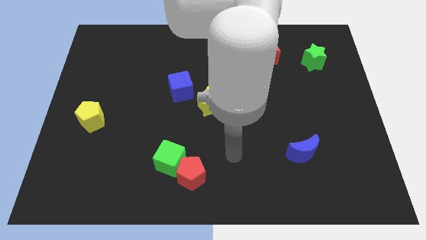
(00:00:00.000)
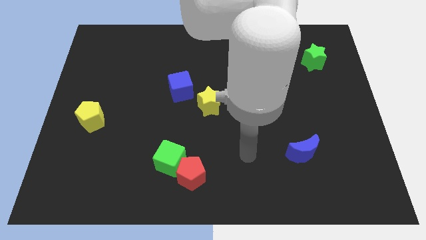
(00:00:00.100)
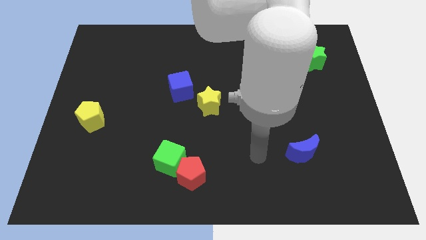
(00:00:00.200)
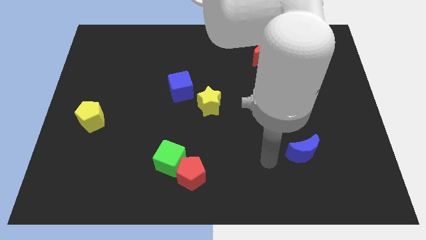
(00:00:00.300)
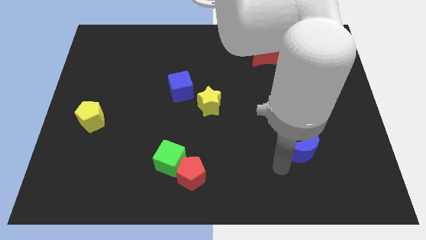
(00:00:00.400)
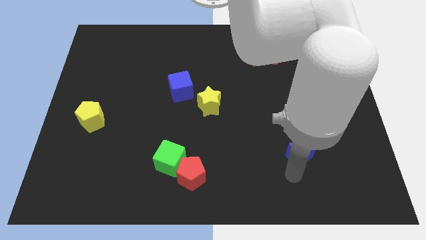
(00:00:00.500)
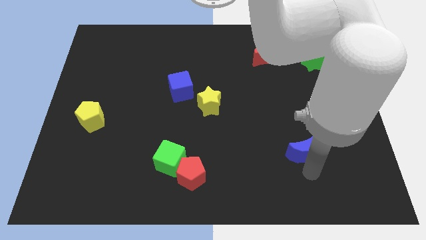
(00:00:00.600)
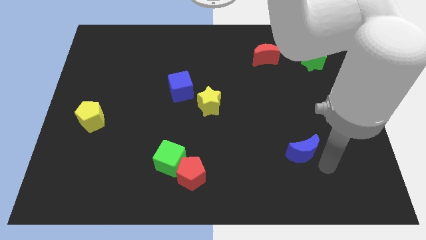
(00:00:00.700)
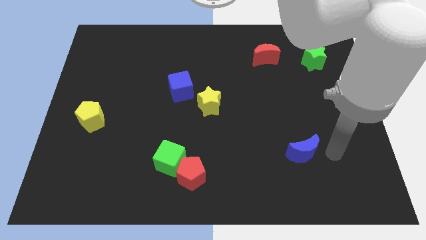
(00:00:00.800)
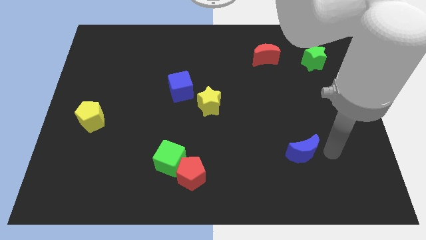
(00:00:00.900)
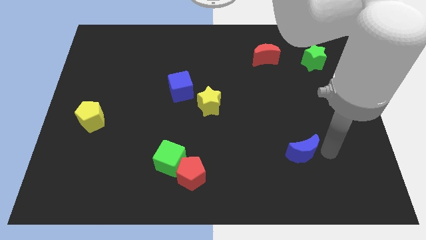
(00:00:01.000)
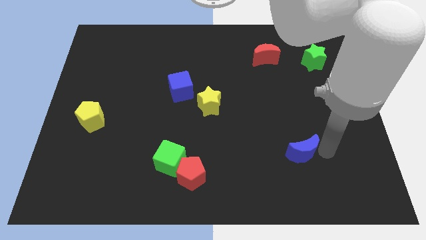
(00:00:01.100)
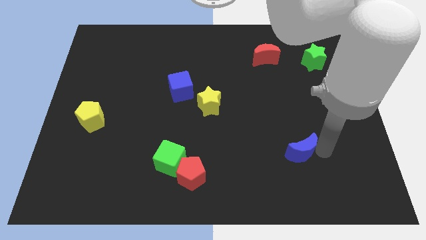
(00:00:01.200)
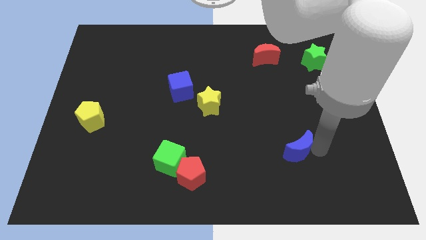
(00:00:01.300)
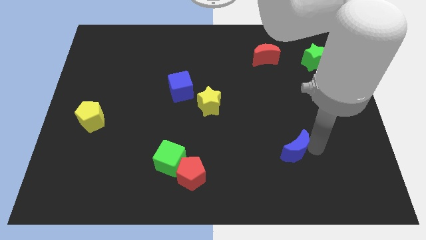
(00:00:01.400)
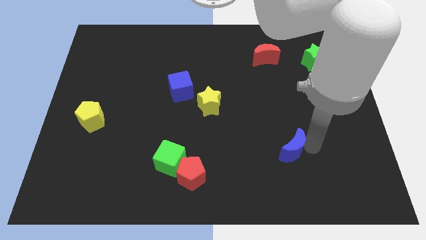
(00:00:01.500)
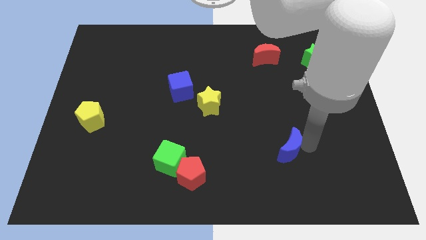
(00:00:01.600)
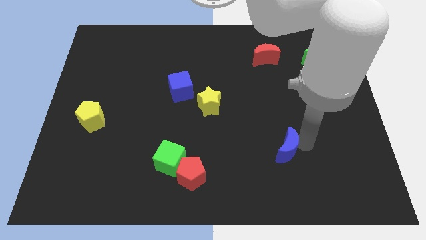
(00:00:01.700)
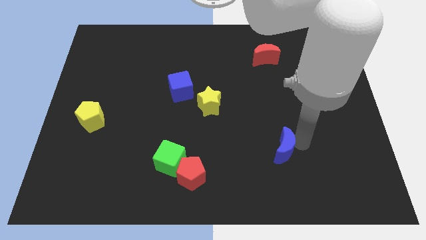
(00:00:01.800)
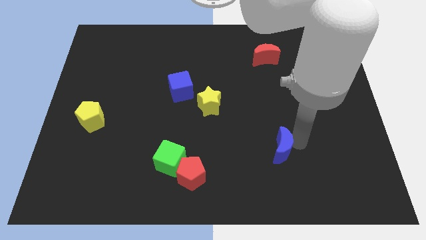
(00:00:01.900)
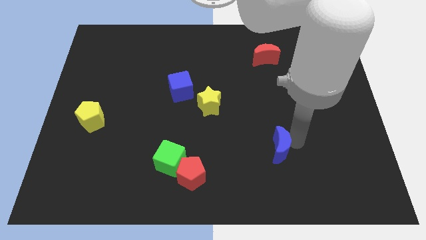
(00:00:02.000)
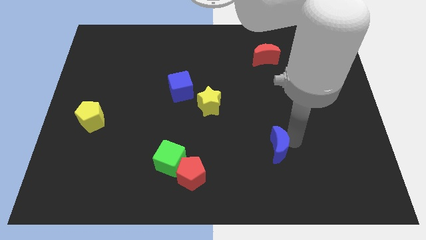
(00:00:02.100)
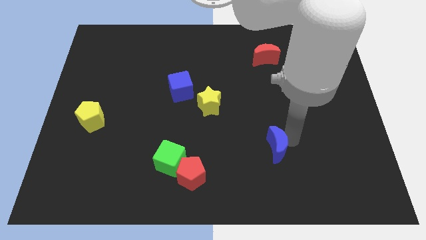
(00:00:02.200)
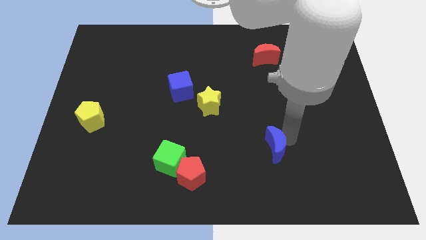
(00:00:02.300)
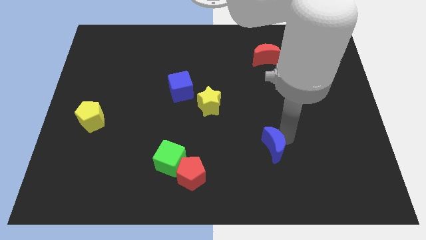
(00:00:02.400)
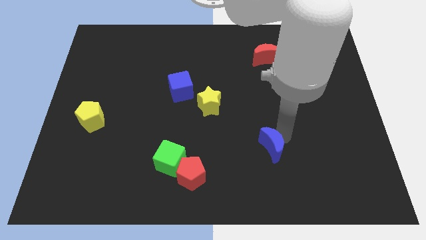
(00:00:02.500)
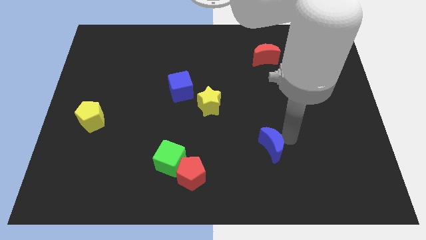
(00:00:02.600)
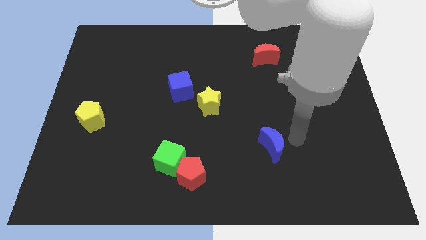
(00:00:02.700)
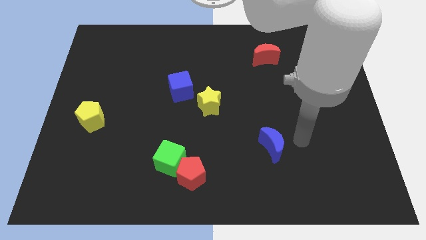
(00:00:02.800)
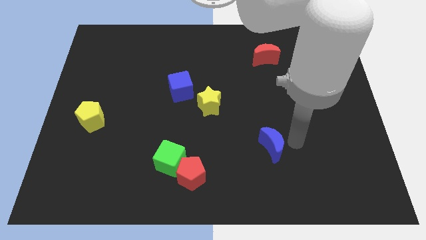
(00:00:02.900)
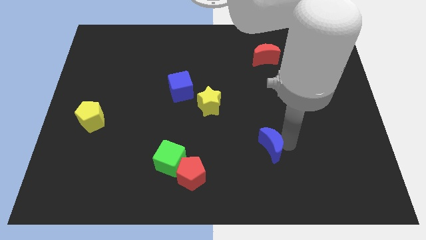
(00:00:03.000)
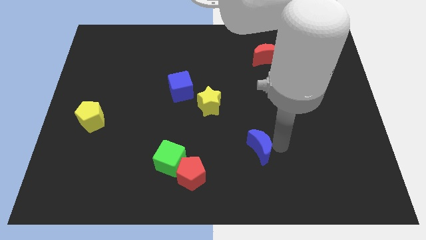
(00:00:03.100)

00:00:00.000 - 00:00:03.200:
slide the blue moon a little left

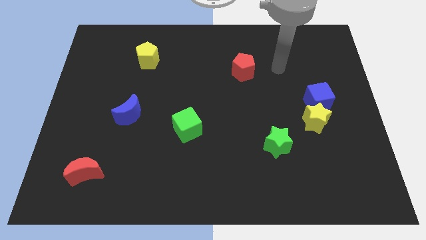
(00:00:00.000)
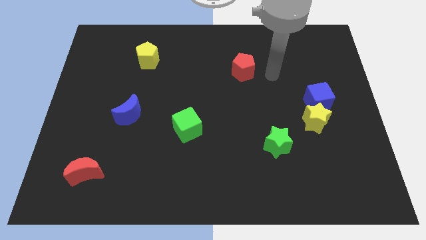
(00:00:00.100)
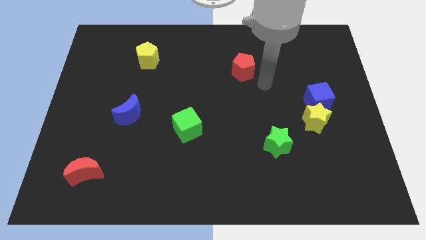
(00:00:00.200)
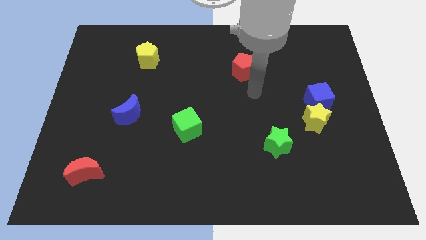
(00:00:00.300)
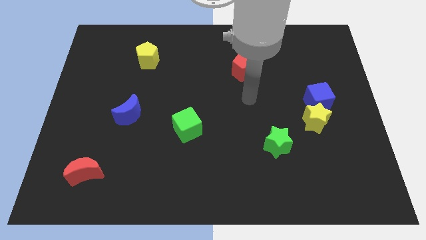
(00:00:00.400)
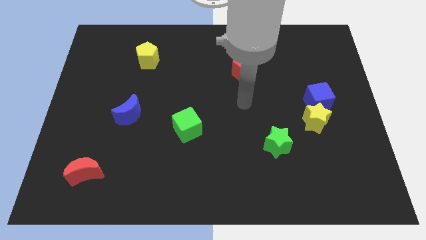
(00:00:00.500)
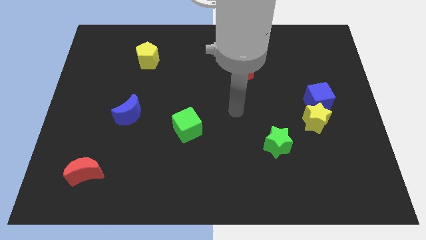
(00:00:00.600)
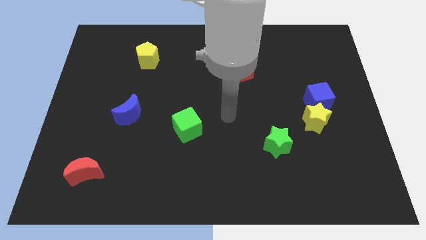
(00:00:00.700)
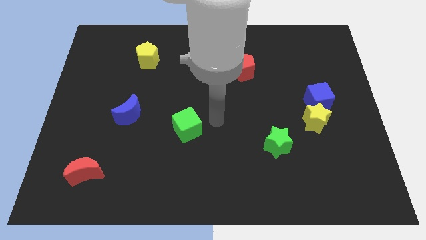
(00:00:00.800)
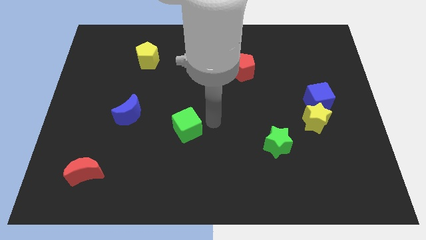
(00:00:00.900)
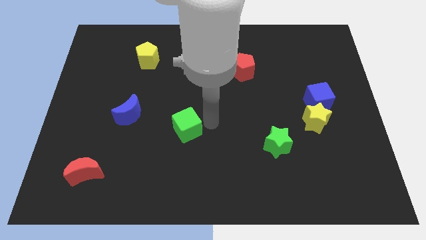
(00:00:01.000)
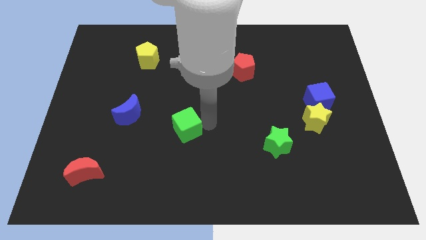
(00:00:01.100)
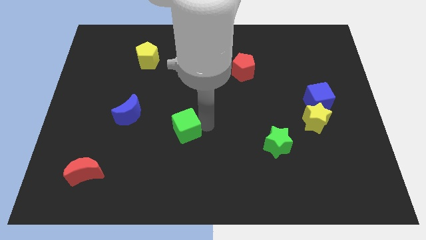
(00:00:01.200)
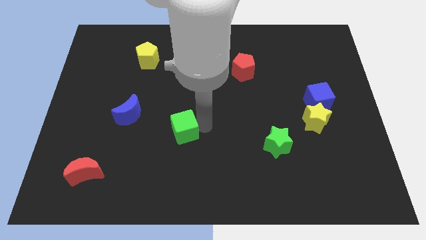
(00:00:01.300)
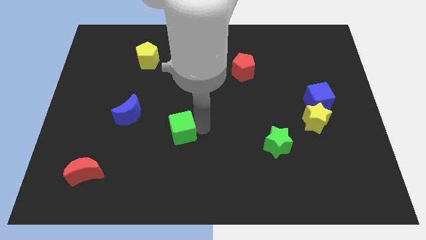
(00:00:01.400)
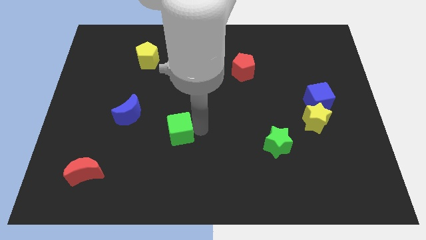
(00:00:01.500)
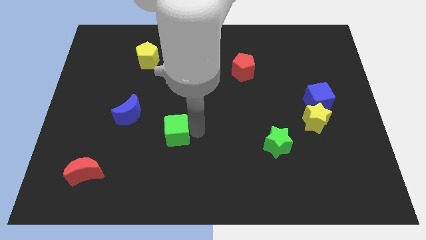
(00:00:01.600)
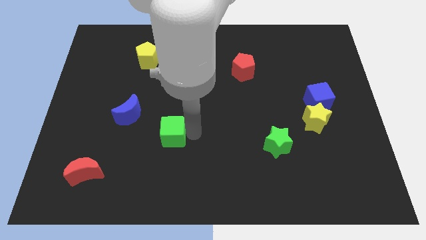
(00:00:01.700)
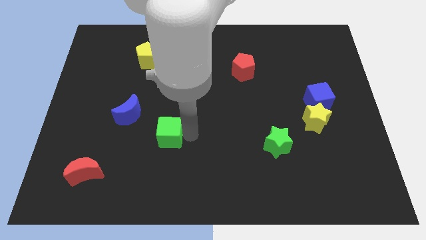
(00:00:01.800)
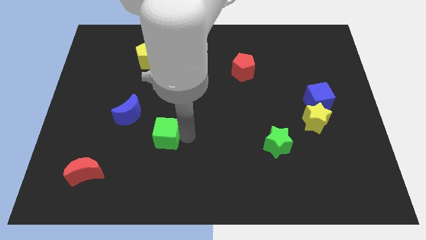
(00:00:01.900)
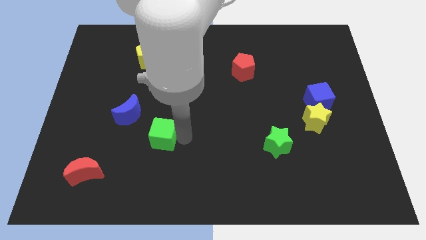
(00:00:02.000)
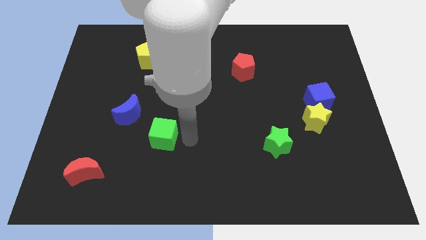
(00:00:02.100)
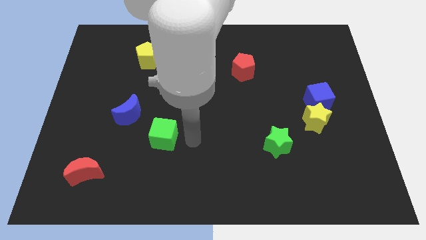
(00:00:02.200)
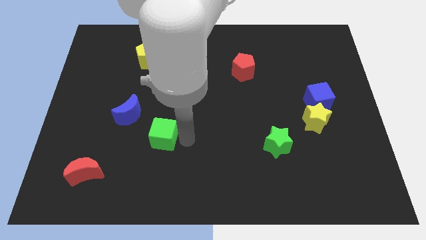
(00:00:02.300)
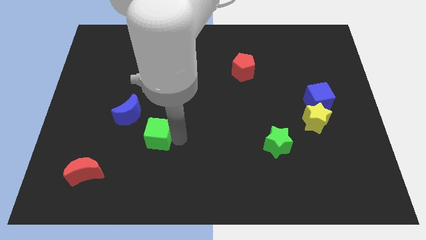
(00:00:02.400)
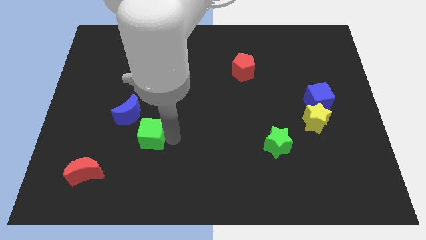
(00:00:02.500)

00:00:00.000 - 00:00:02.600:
slide the green cube a little bit to the left

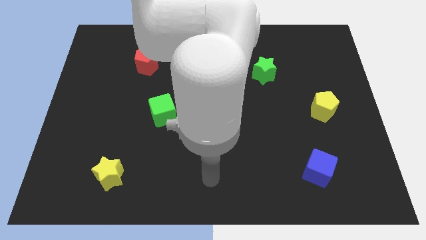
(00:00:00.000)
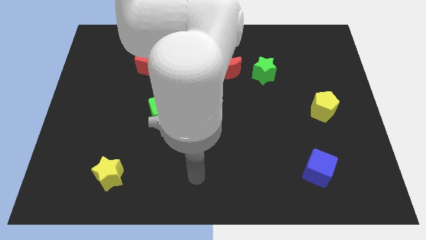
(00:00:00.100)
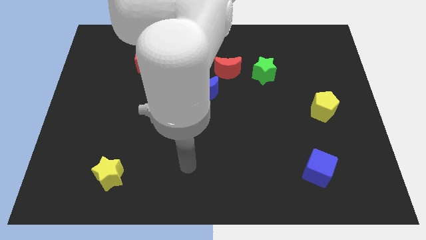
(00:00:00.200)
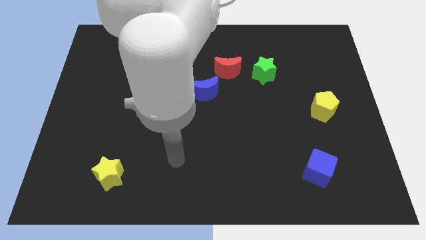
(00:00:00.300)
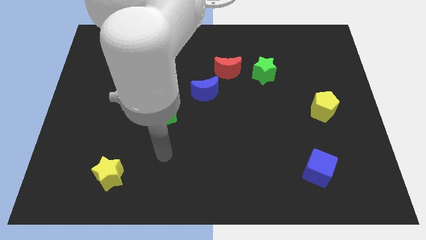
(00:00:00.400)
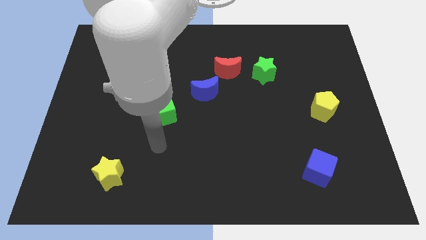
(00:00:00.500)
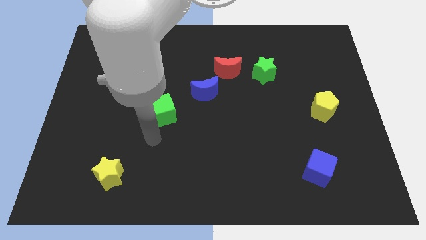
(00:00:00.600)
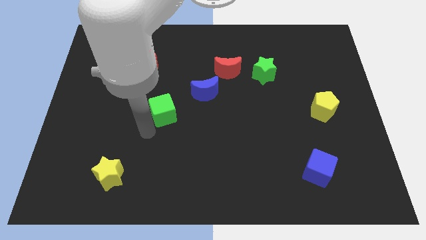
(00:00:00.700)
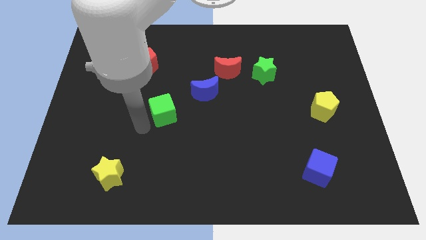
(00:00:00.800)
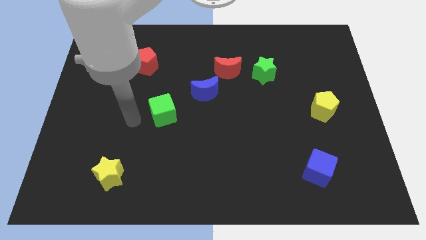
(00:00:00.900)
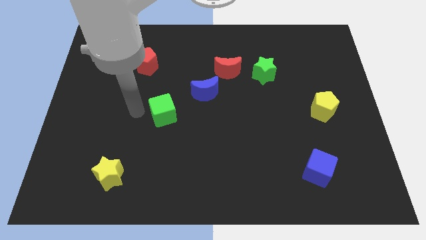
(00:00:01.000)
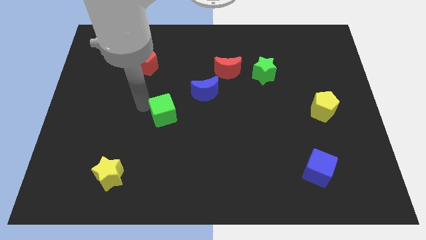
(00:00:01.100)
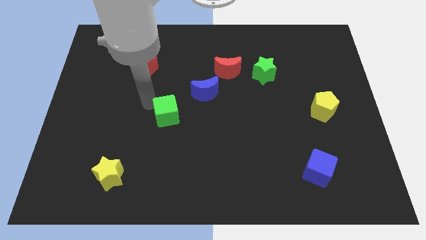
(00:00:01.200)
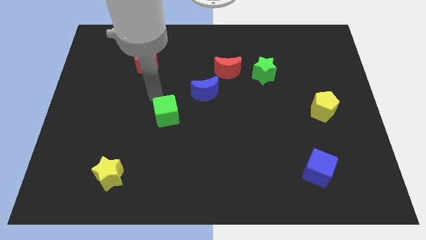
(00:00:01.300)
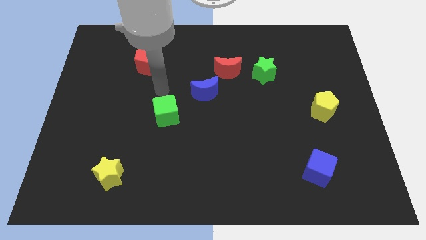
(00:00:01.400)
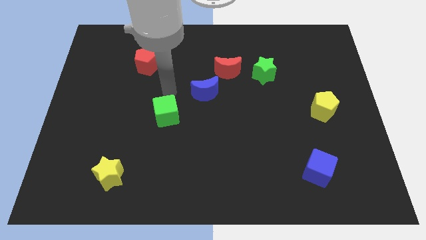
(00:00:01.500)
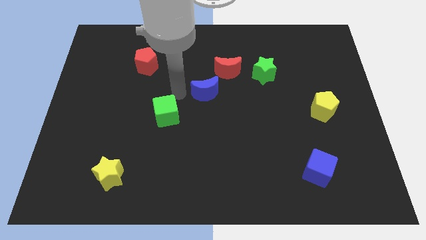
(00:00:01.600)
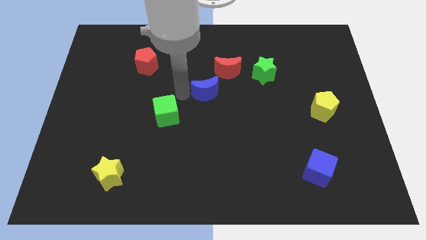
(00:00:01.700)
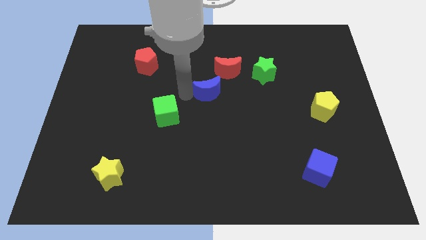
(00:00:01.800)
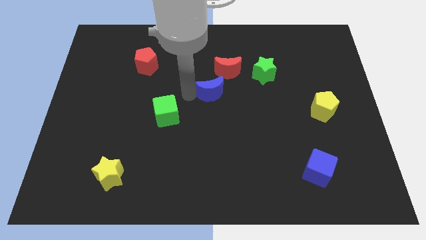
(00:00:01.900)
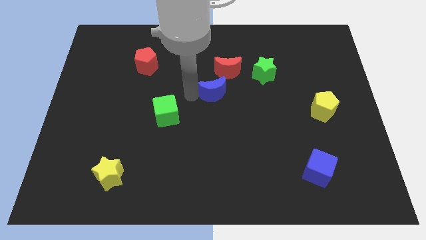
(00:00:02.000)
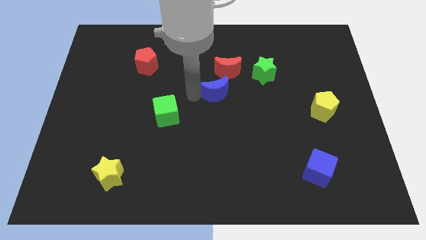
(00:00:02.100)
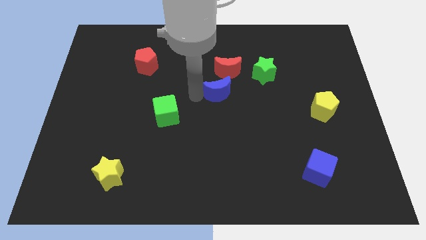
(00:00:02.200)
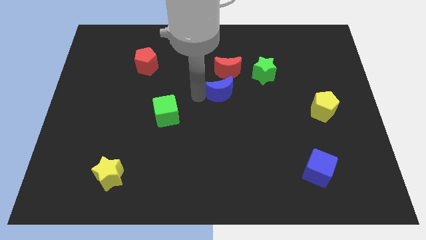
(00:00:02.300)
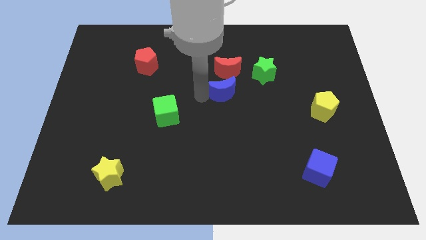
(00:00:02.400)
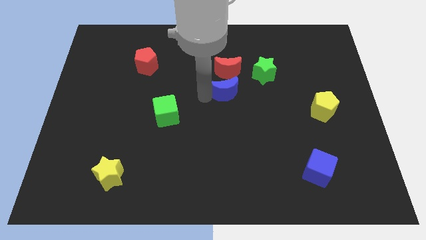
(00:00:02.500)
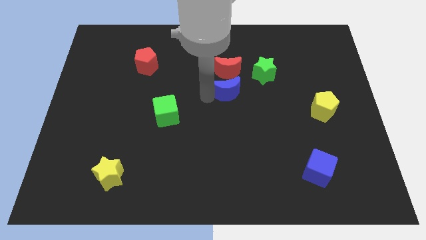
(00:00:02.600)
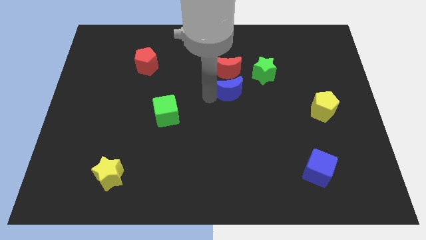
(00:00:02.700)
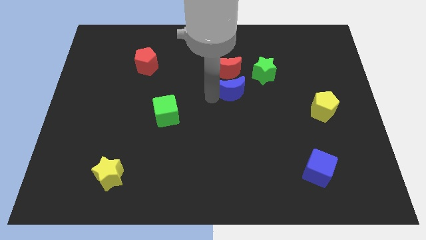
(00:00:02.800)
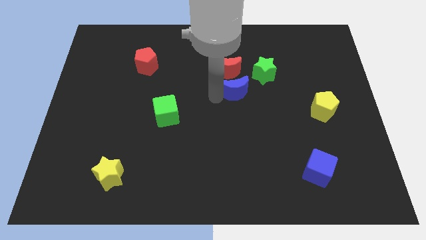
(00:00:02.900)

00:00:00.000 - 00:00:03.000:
slightly push the blue moon to the right
